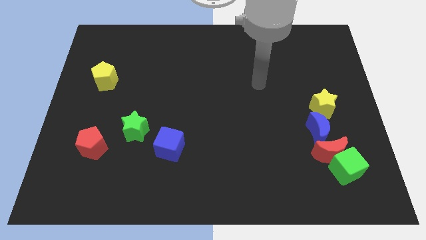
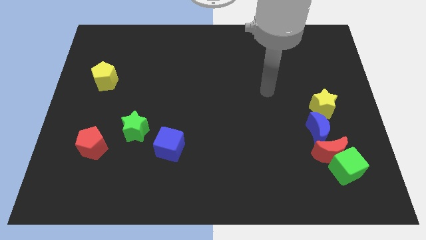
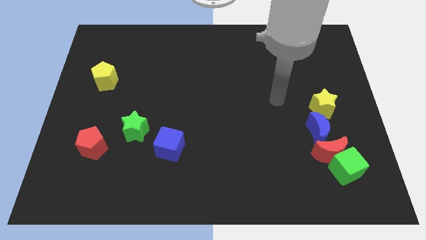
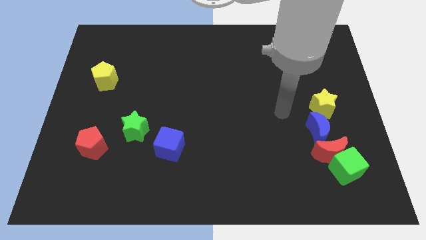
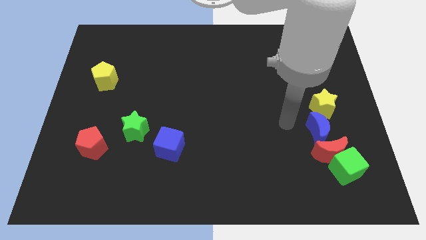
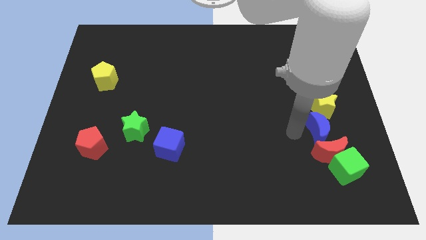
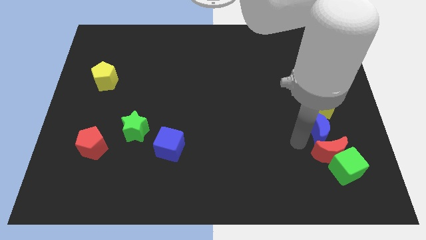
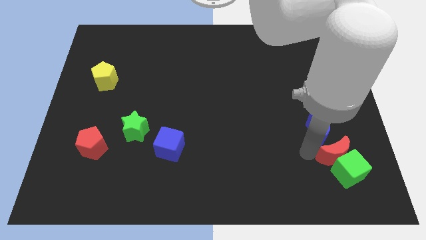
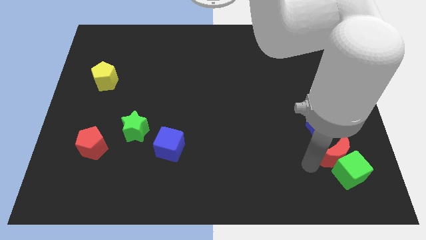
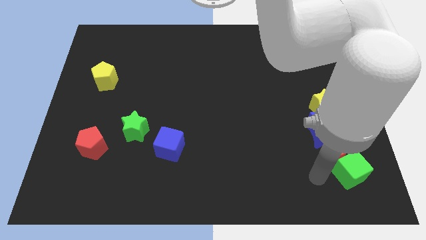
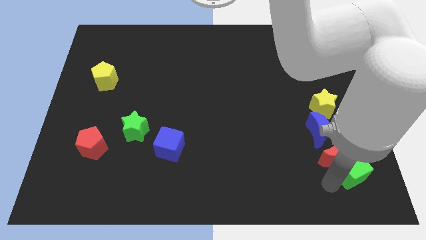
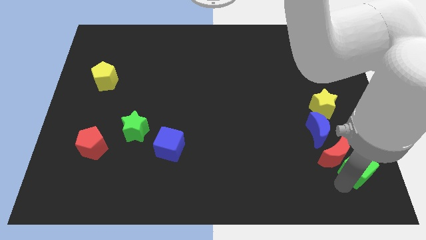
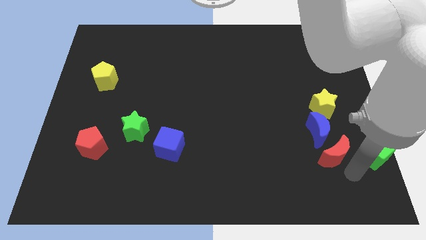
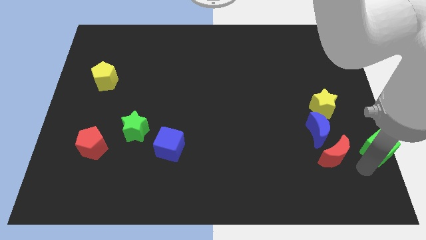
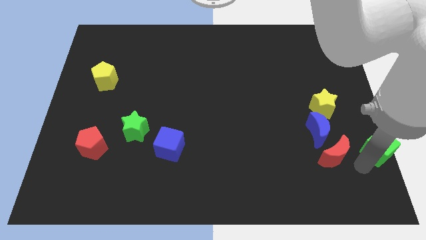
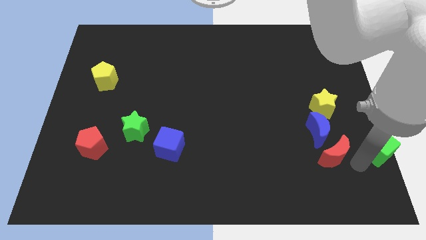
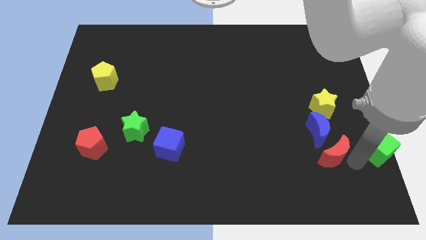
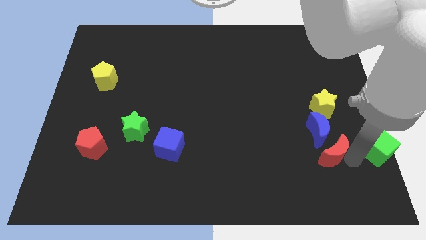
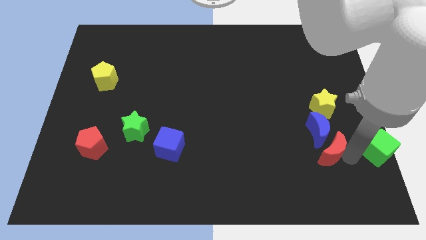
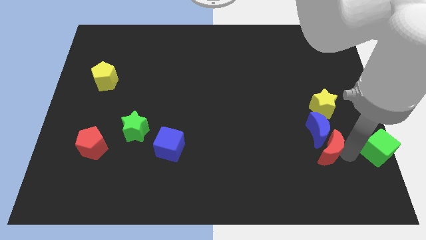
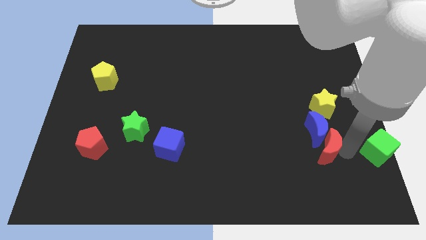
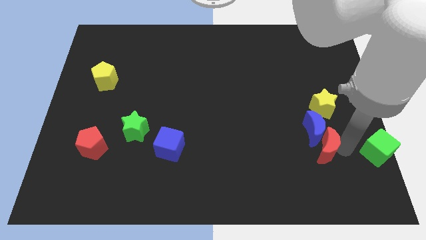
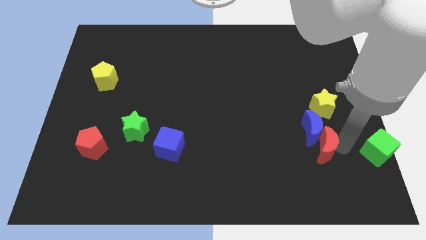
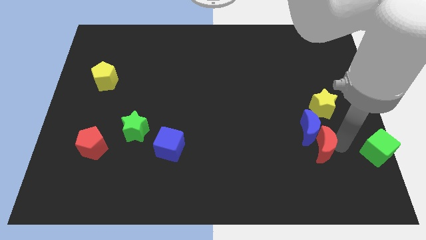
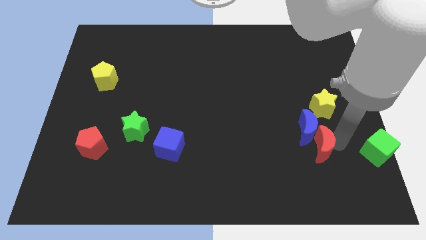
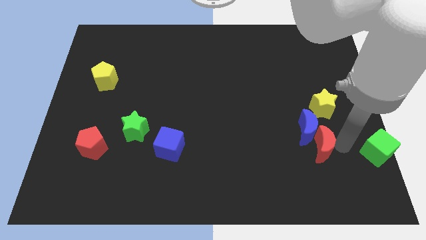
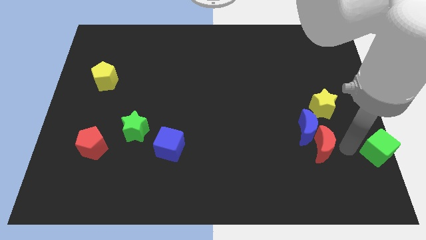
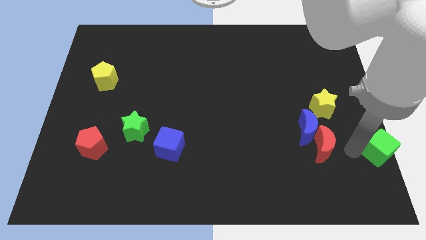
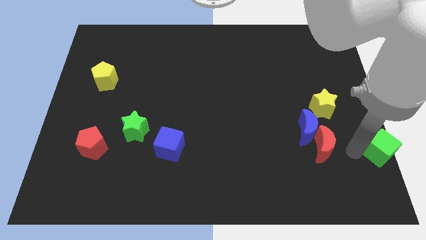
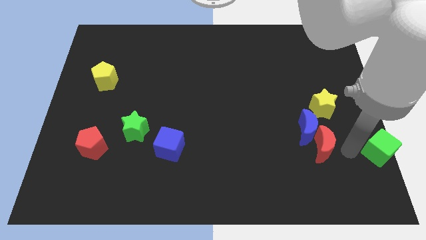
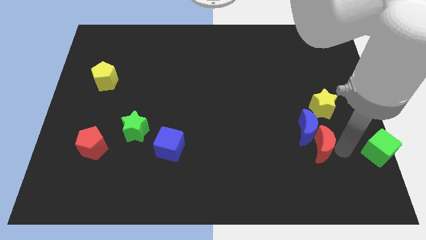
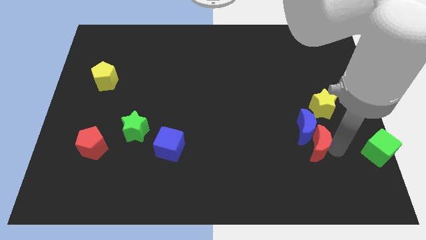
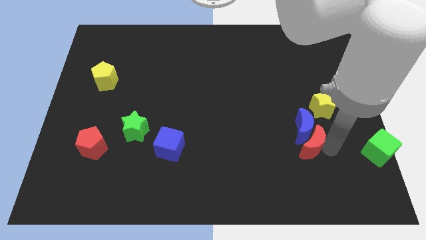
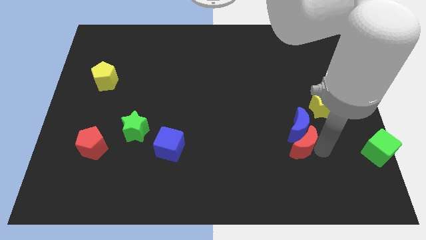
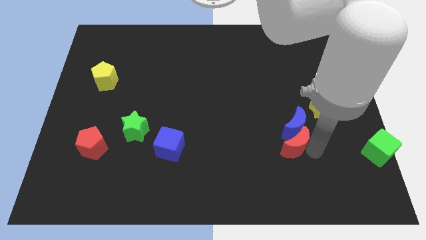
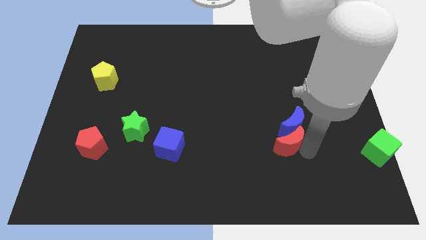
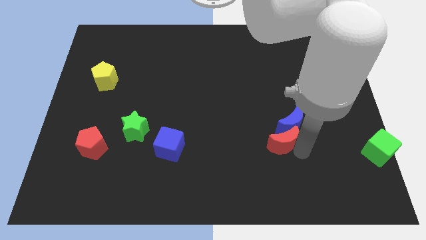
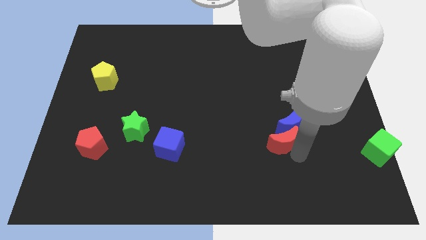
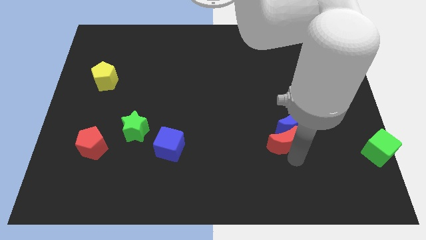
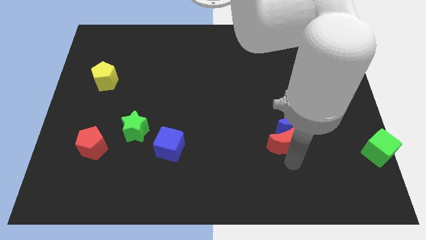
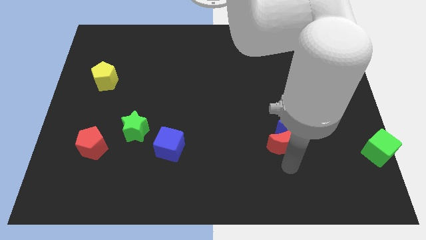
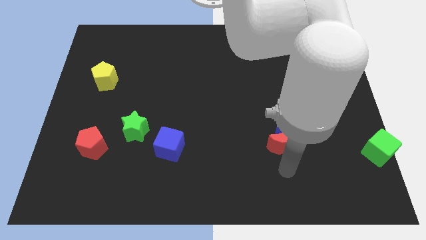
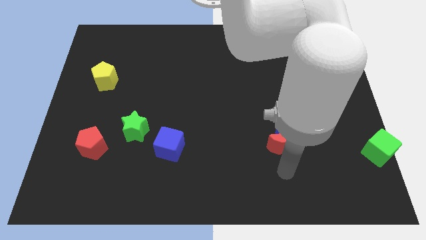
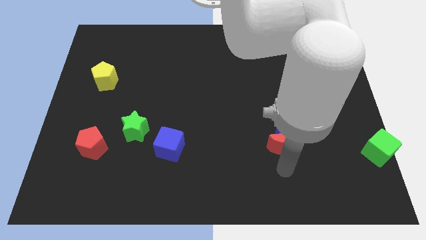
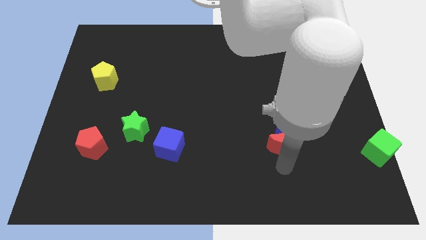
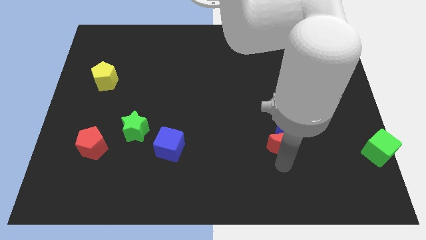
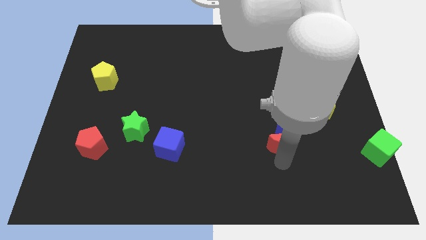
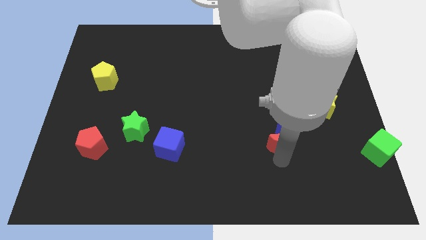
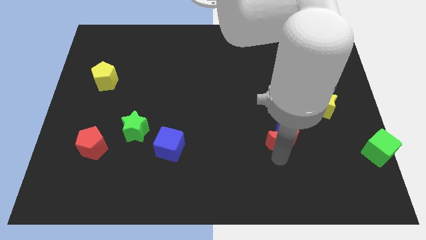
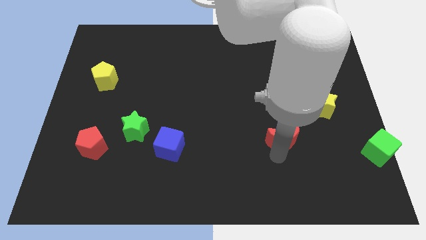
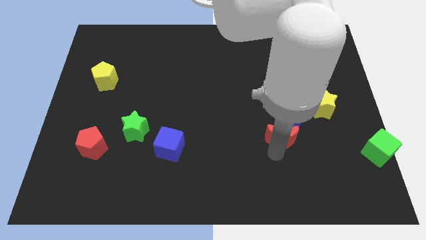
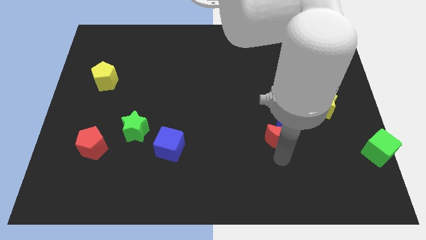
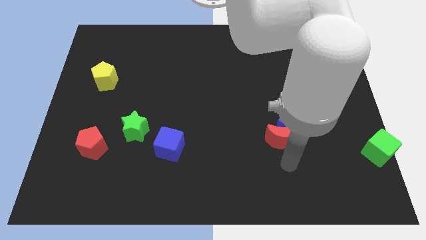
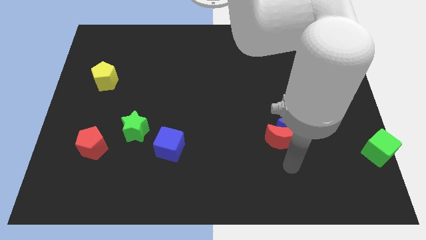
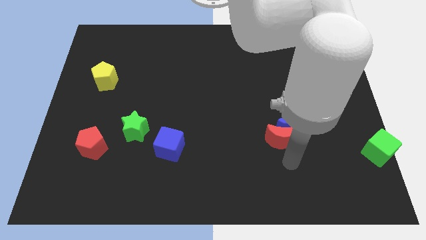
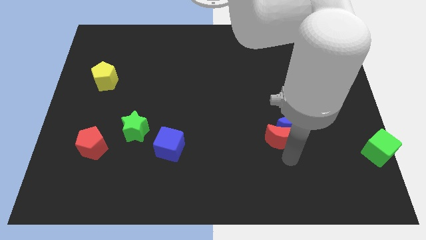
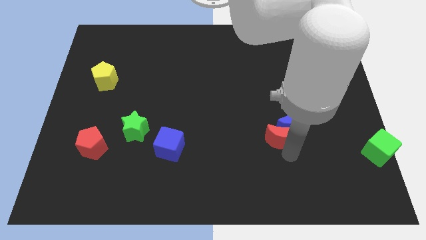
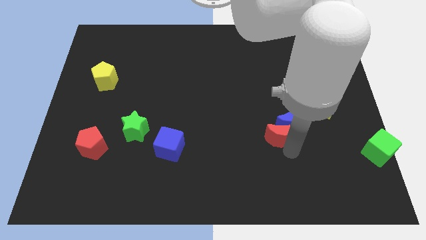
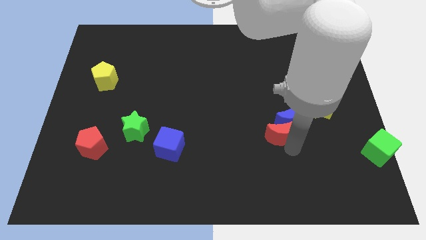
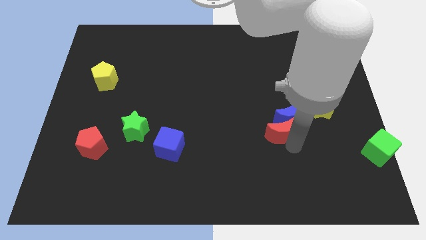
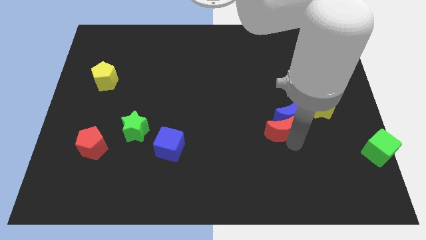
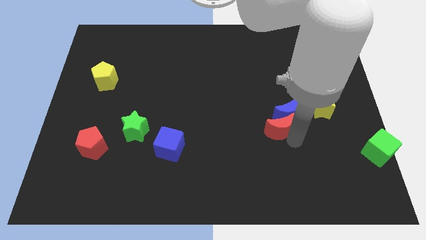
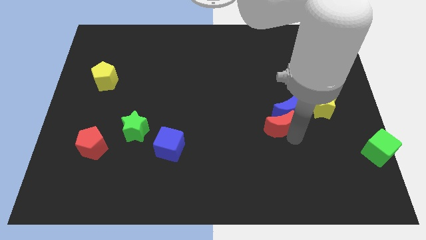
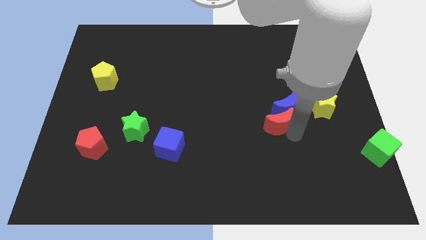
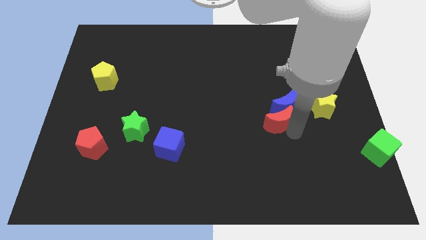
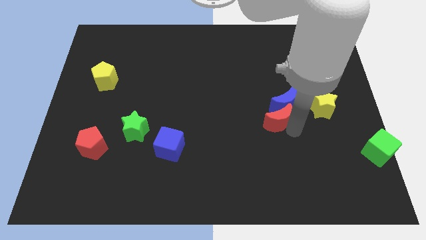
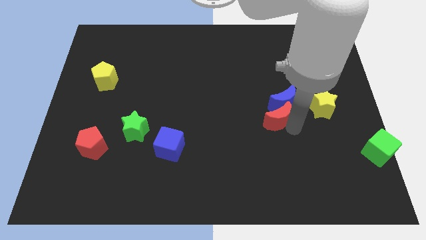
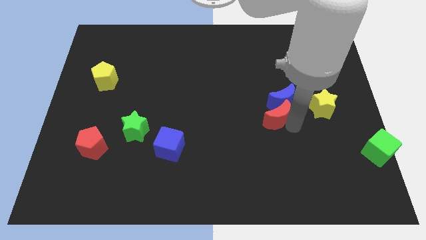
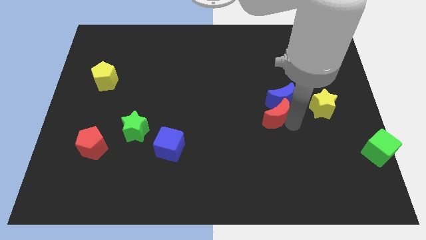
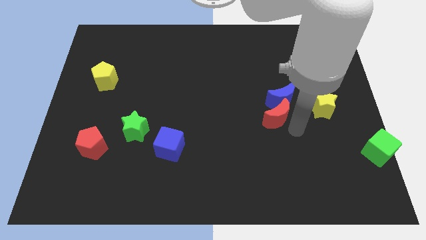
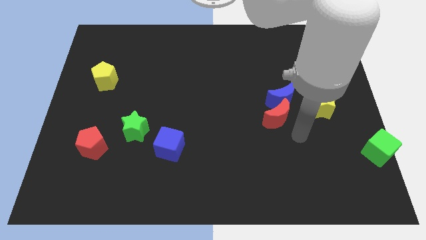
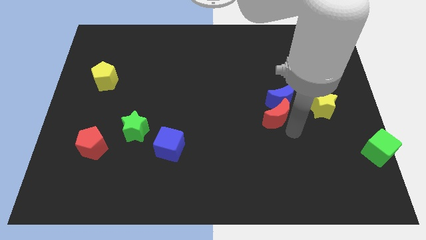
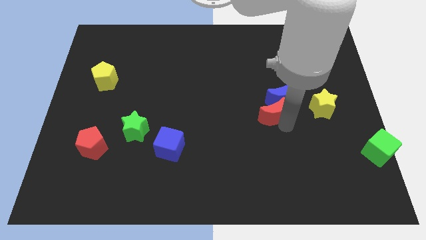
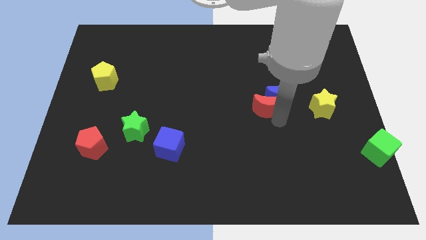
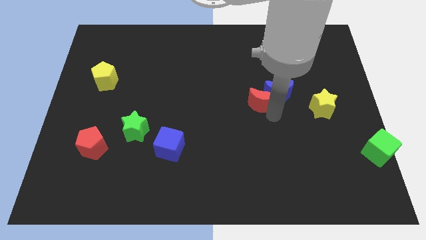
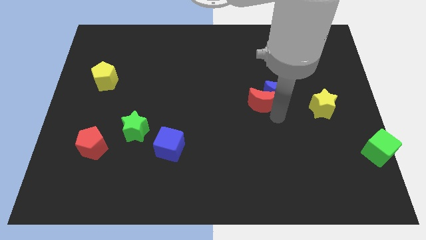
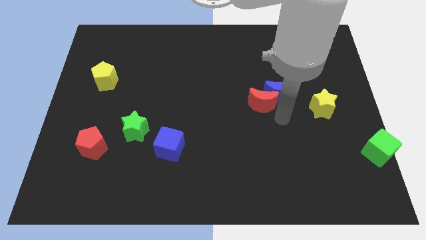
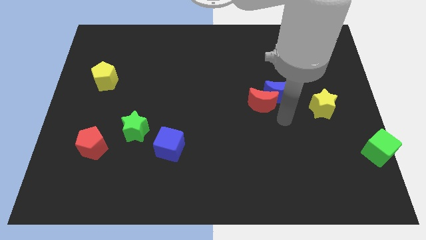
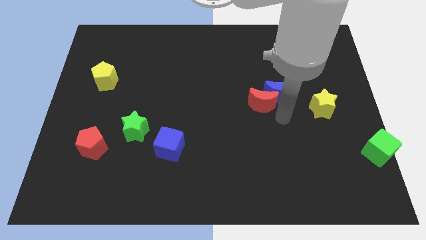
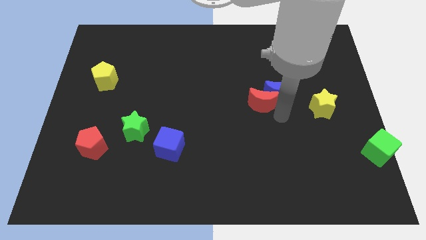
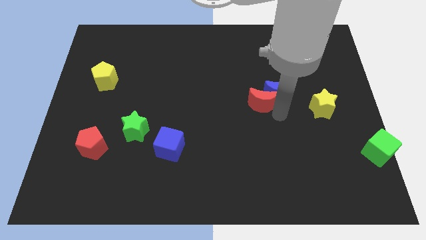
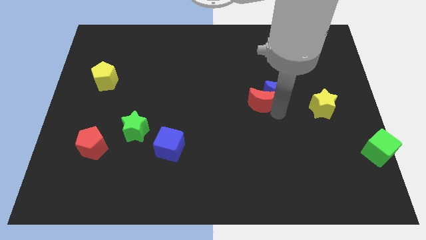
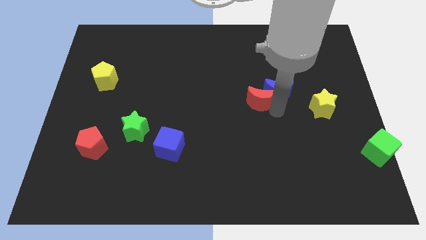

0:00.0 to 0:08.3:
slide the red moon up and left diagonally
